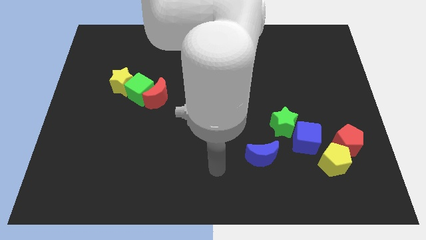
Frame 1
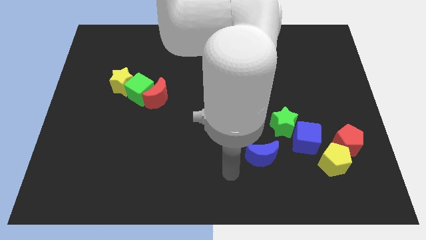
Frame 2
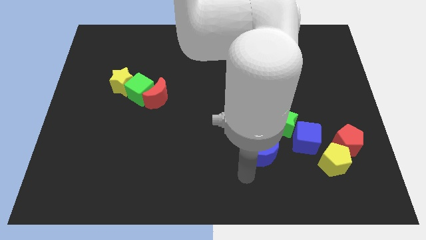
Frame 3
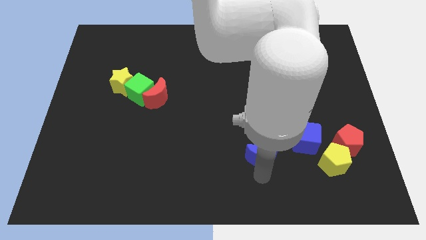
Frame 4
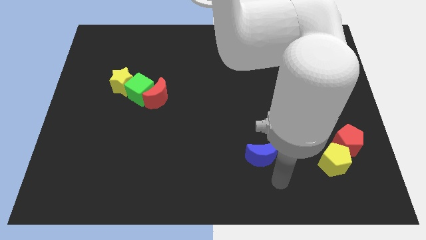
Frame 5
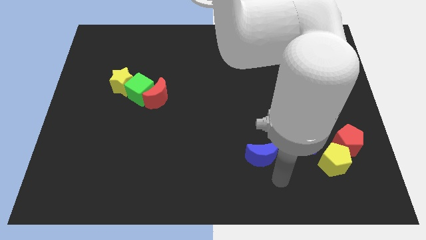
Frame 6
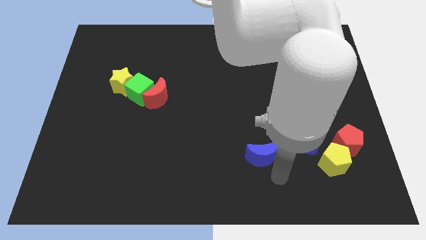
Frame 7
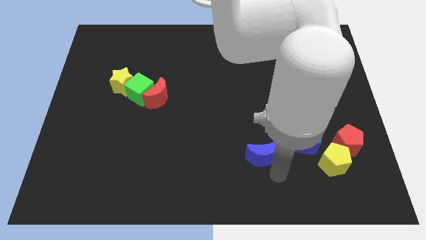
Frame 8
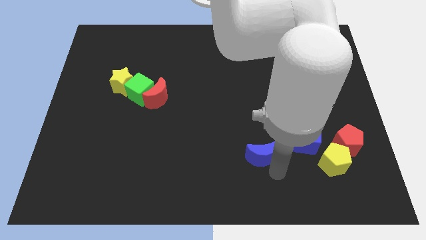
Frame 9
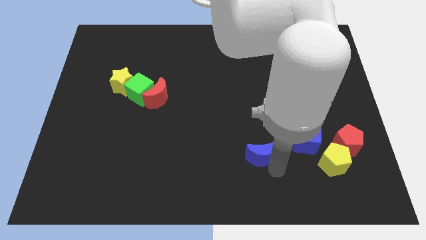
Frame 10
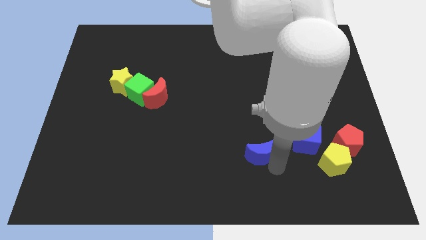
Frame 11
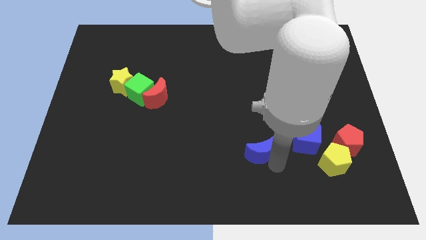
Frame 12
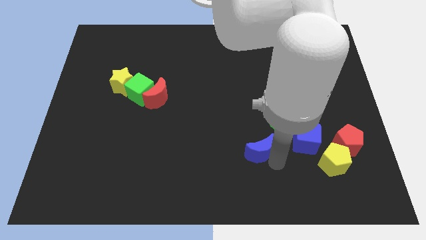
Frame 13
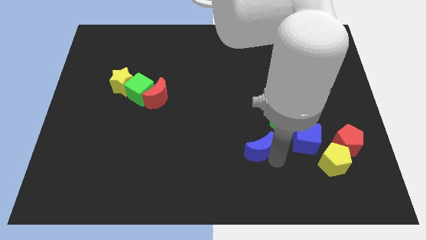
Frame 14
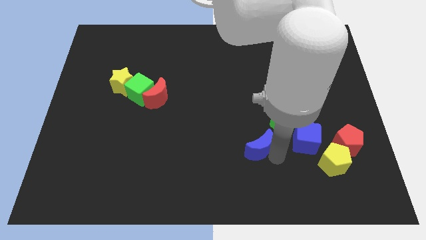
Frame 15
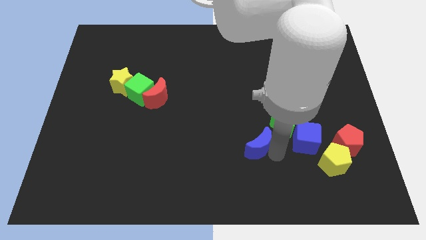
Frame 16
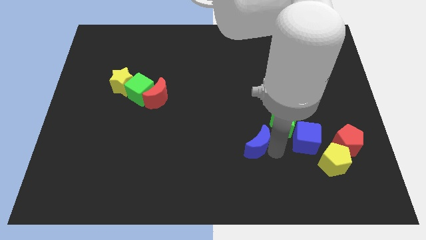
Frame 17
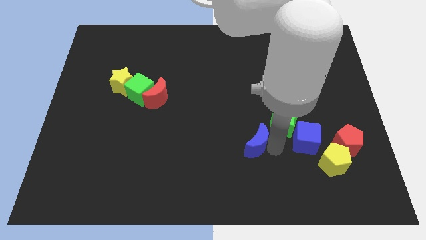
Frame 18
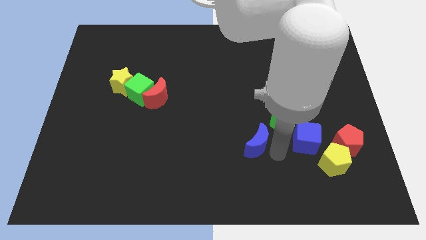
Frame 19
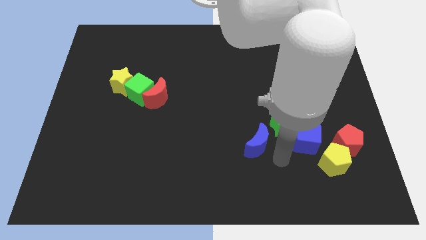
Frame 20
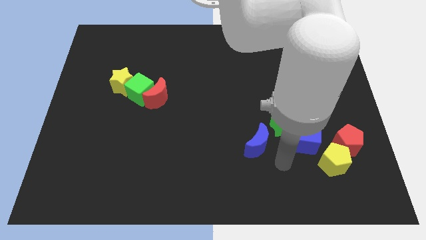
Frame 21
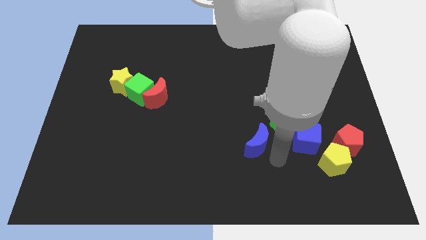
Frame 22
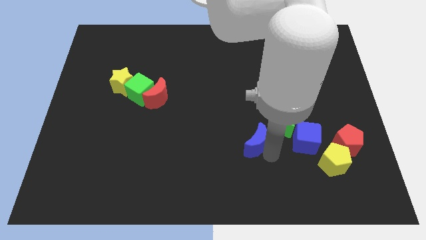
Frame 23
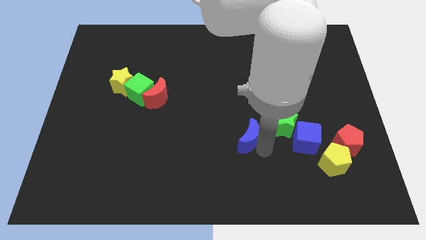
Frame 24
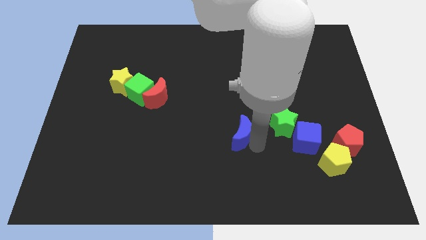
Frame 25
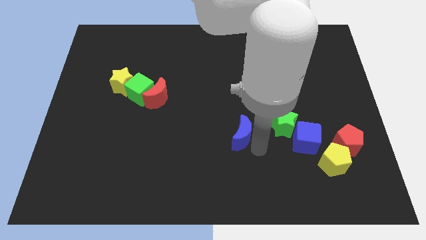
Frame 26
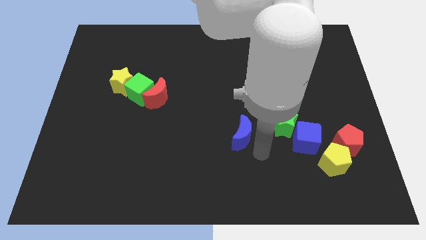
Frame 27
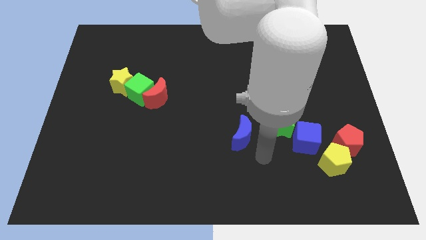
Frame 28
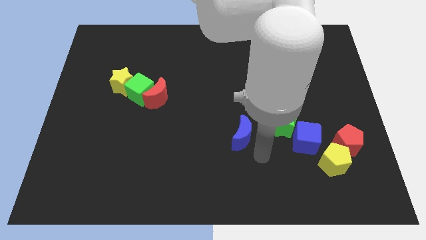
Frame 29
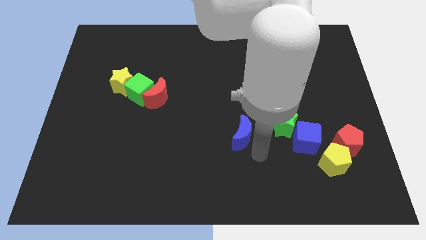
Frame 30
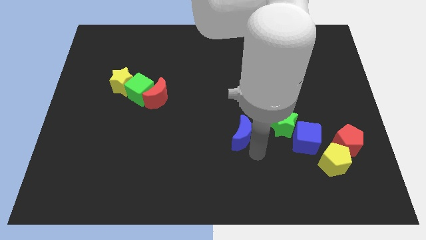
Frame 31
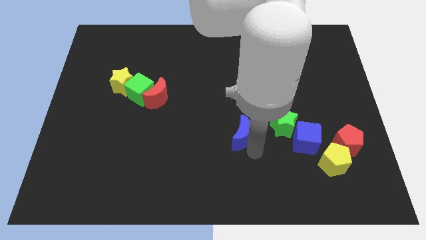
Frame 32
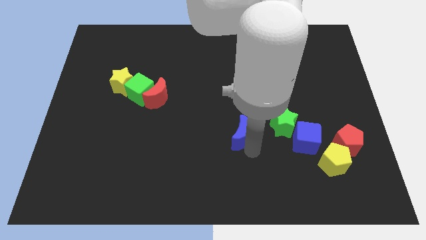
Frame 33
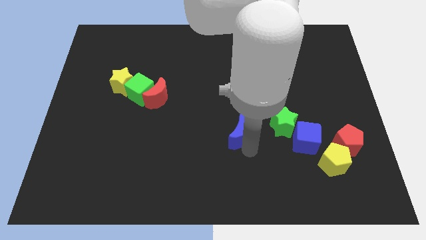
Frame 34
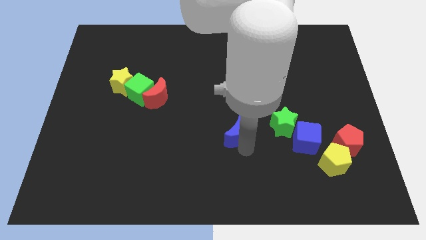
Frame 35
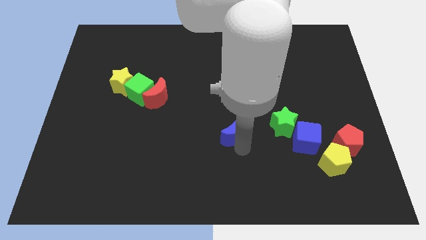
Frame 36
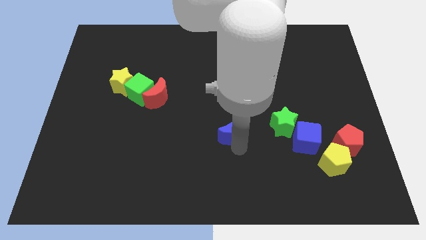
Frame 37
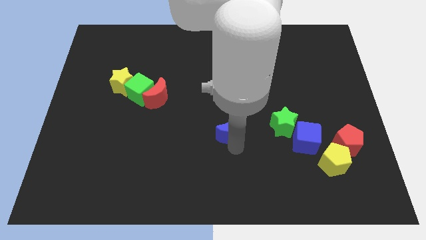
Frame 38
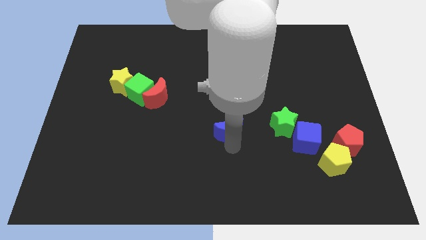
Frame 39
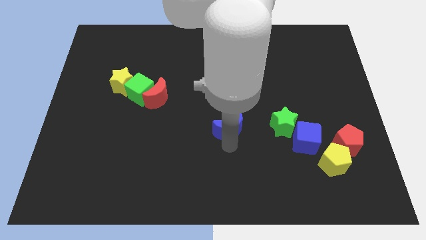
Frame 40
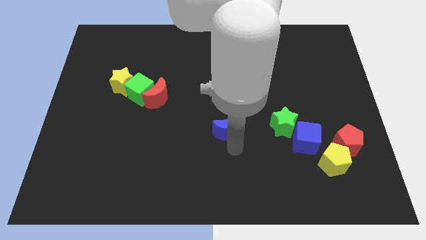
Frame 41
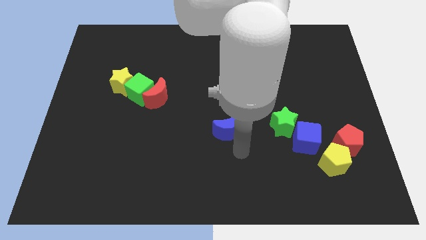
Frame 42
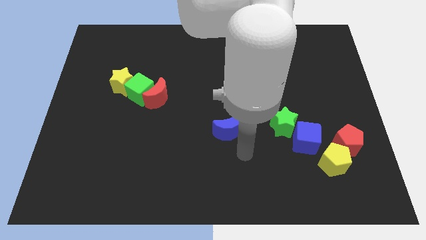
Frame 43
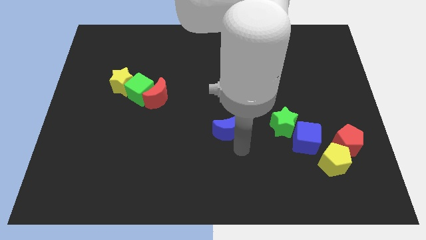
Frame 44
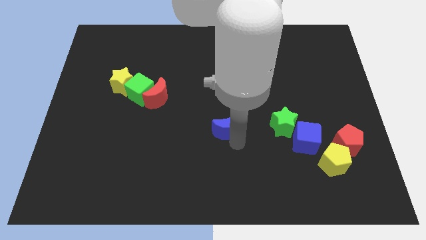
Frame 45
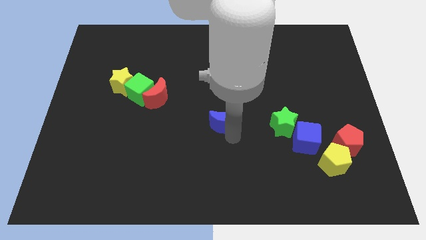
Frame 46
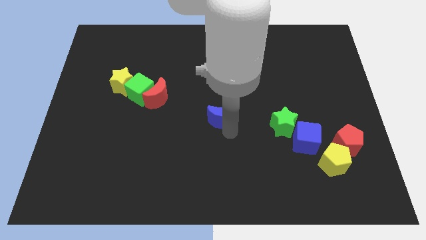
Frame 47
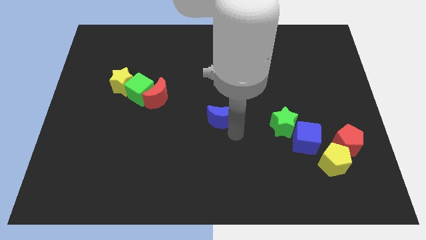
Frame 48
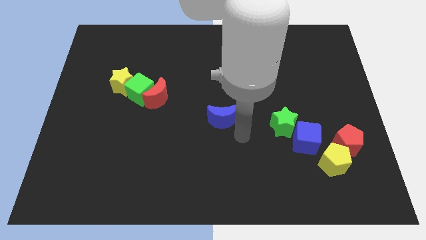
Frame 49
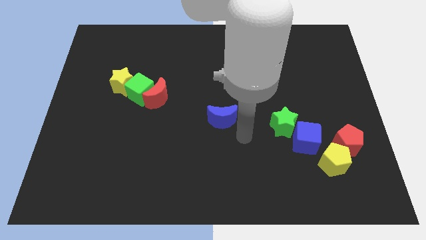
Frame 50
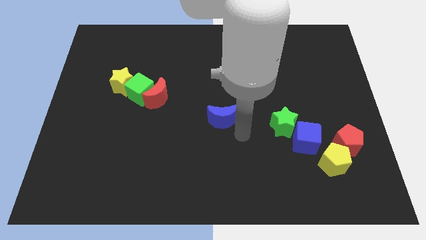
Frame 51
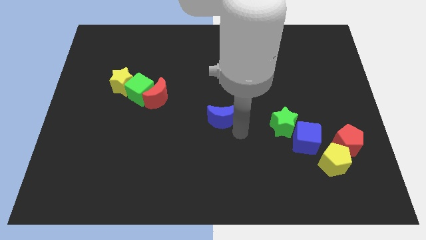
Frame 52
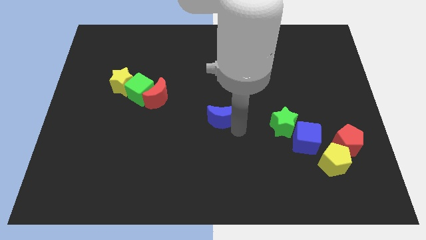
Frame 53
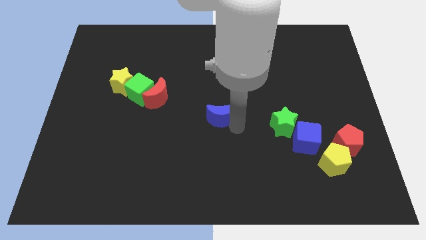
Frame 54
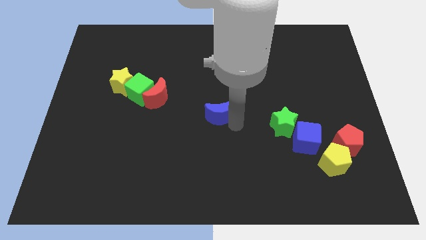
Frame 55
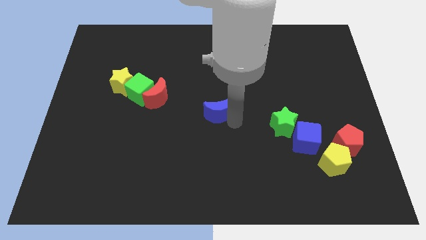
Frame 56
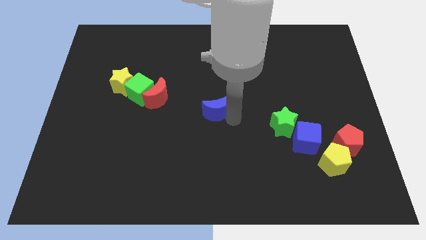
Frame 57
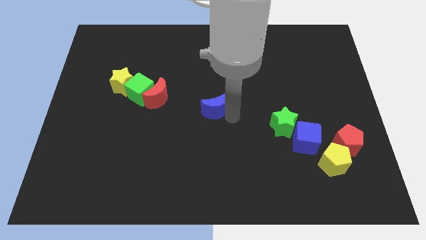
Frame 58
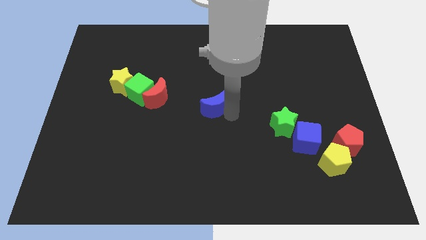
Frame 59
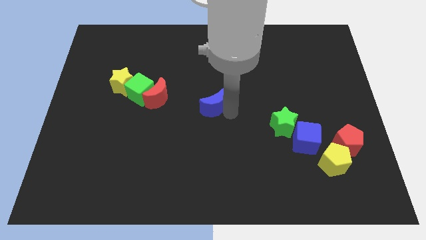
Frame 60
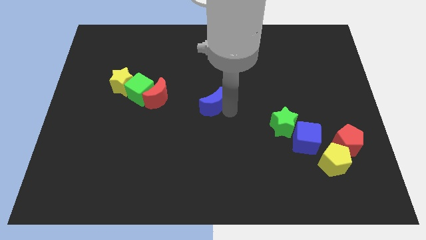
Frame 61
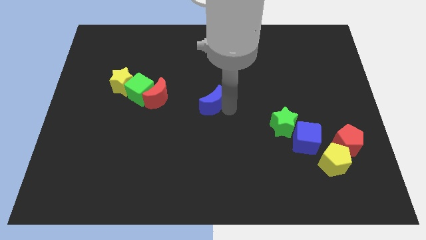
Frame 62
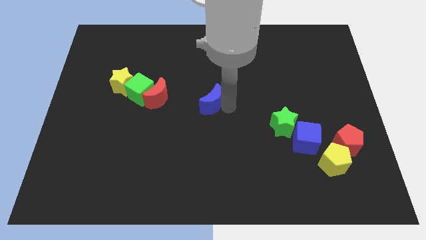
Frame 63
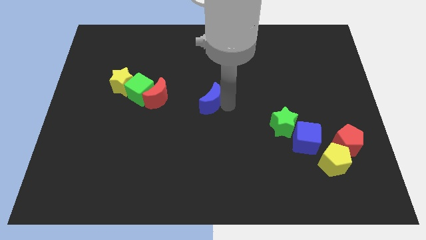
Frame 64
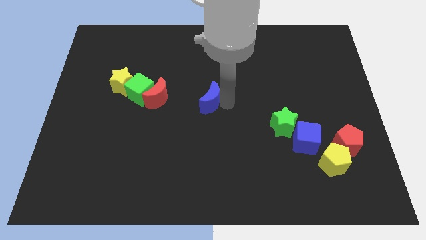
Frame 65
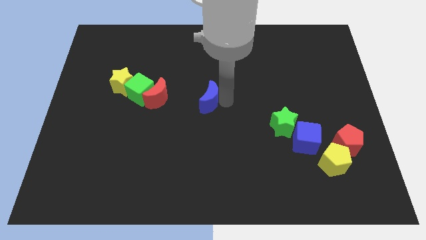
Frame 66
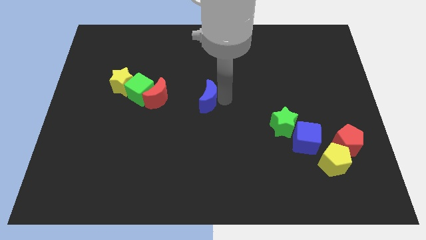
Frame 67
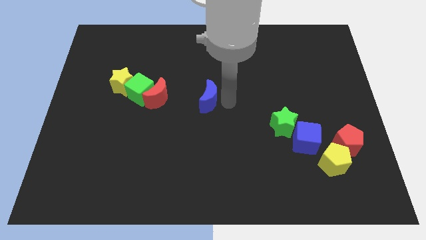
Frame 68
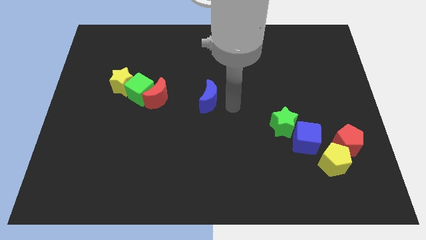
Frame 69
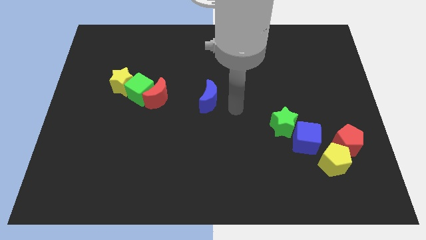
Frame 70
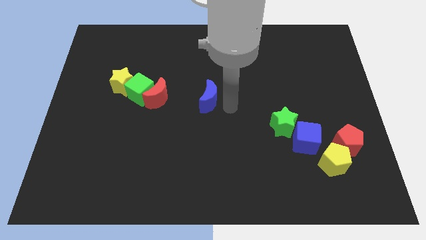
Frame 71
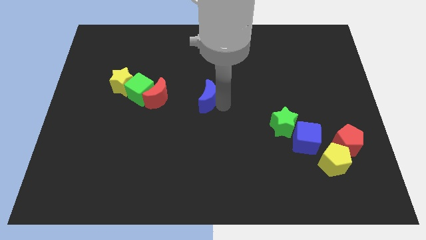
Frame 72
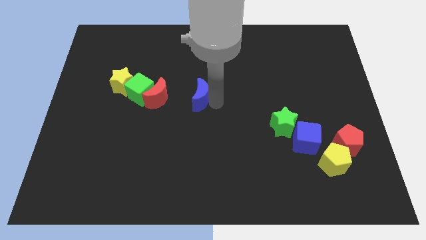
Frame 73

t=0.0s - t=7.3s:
slide the blue moon up and left diagonally

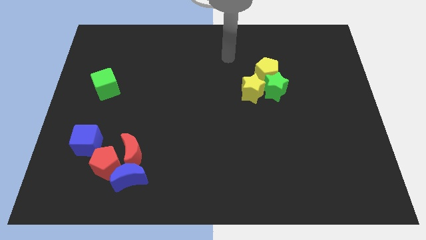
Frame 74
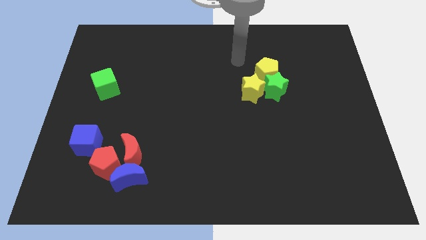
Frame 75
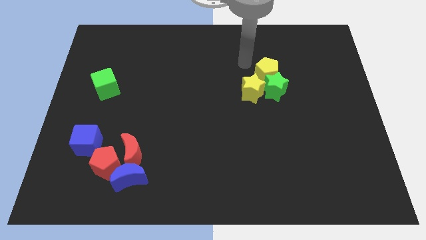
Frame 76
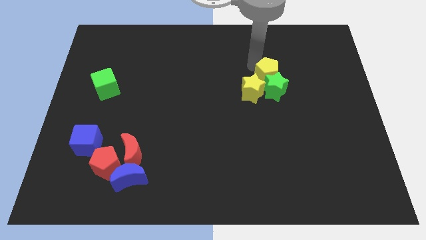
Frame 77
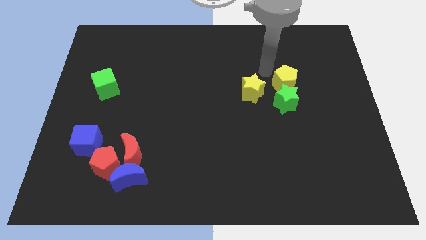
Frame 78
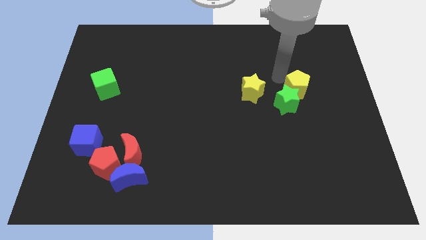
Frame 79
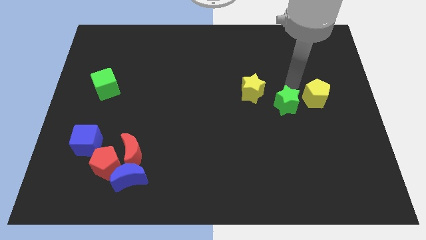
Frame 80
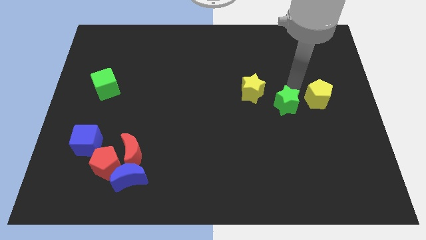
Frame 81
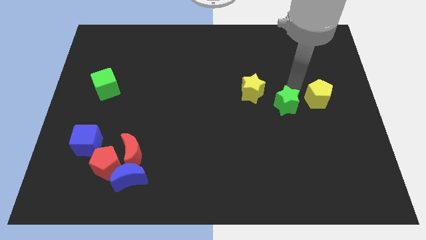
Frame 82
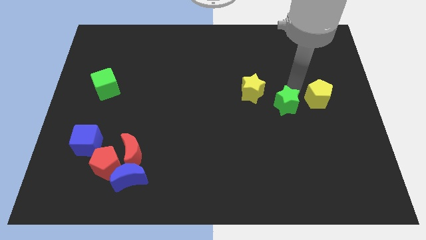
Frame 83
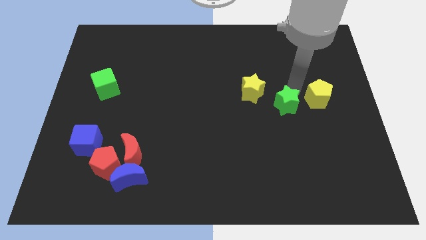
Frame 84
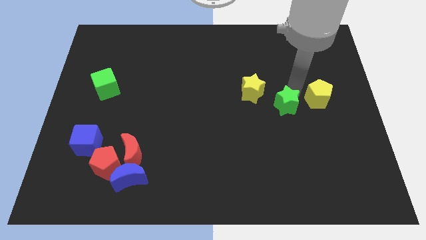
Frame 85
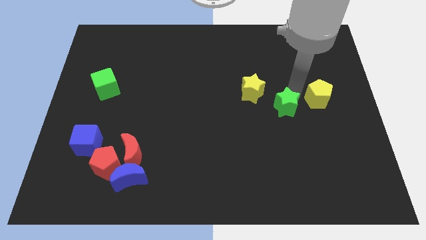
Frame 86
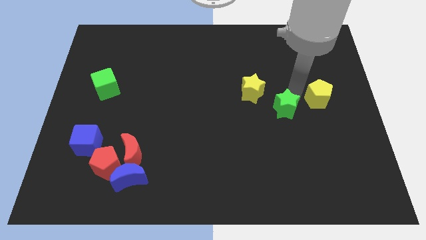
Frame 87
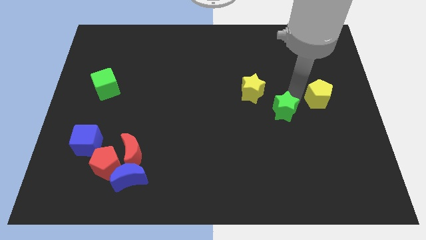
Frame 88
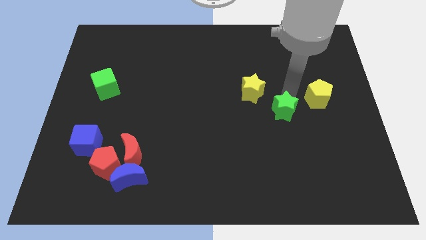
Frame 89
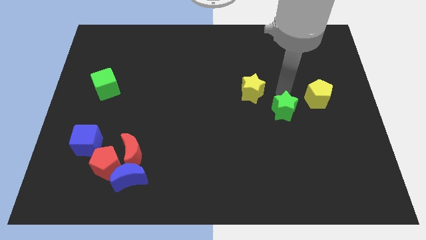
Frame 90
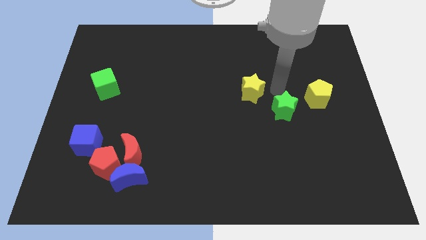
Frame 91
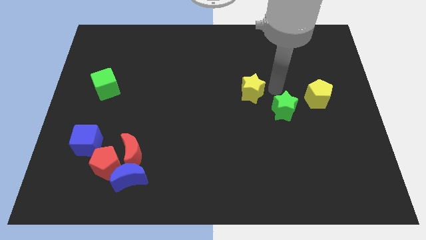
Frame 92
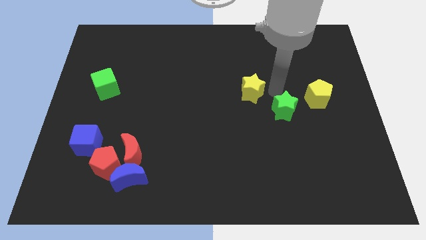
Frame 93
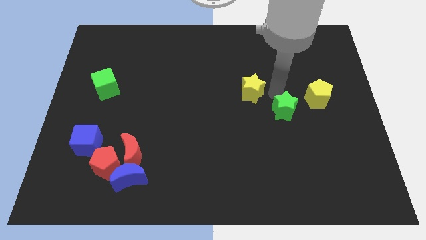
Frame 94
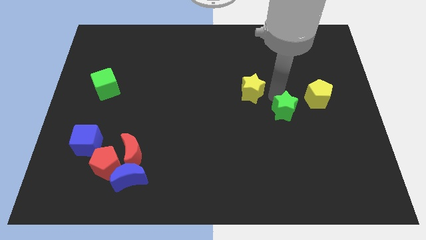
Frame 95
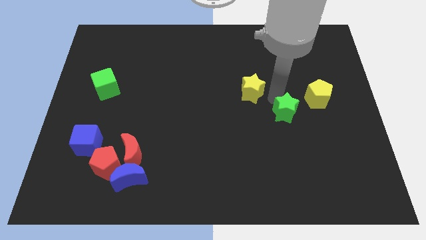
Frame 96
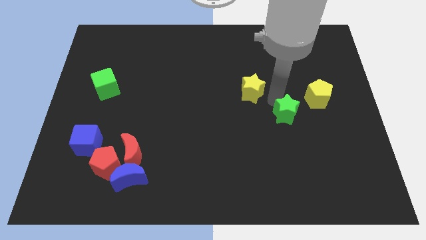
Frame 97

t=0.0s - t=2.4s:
slide the green star down a little bit
